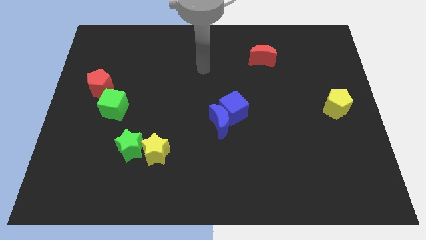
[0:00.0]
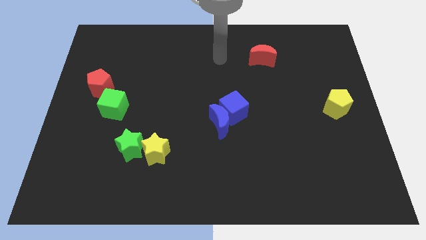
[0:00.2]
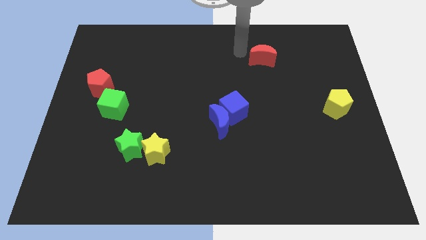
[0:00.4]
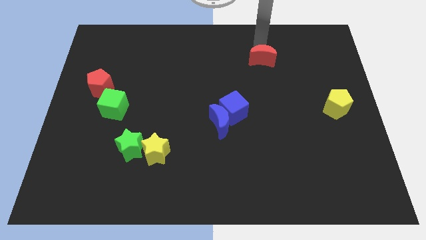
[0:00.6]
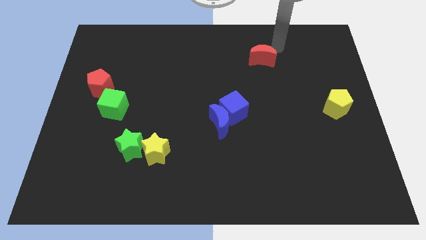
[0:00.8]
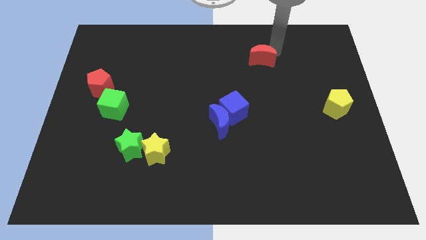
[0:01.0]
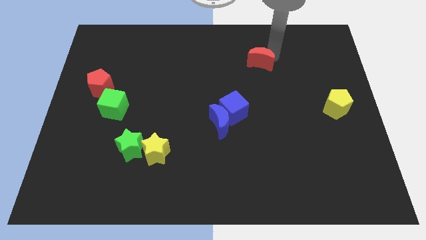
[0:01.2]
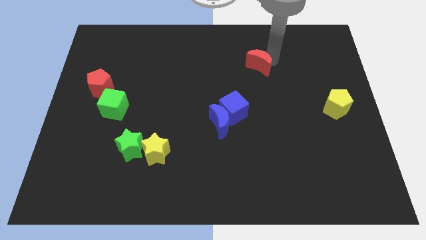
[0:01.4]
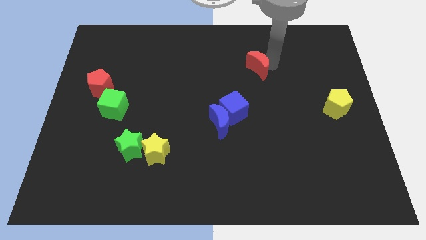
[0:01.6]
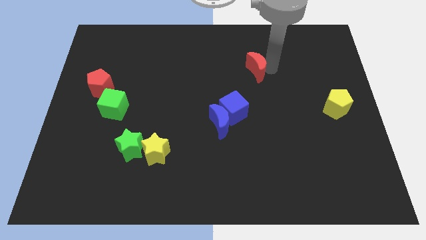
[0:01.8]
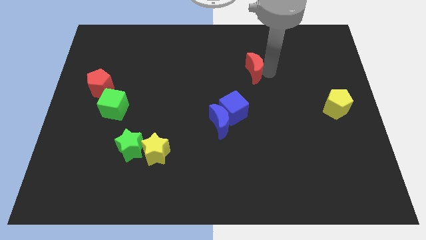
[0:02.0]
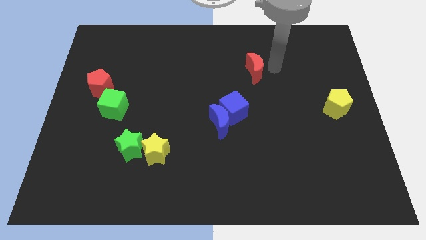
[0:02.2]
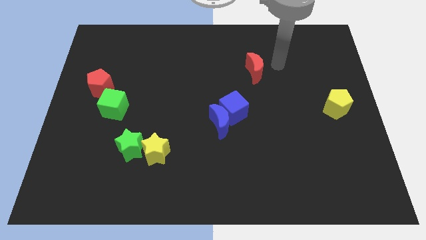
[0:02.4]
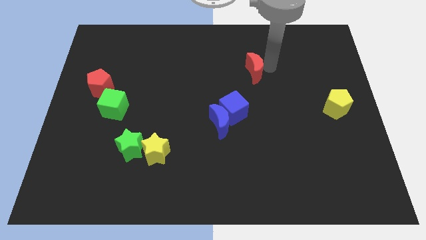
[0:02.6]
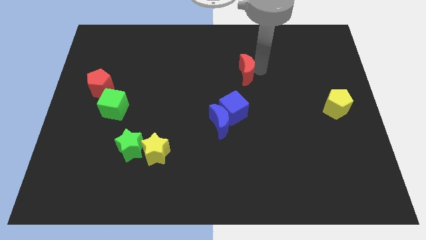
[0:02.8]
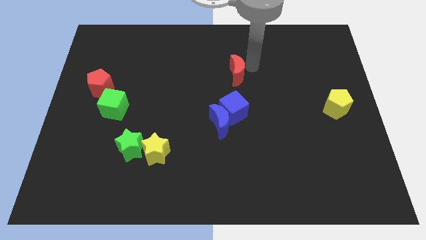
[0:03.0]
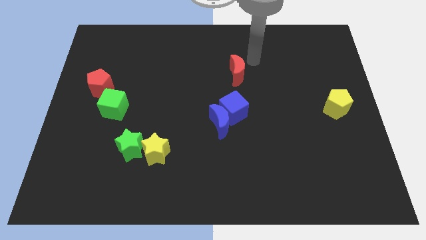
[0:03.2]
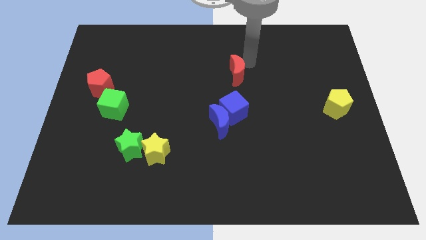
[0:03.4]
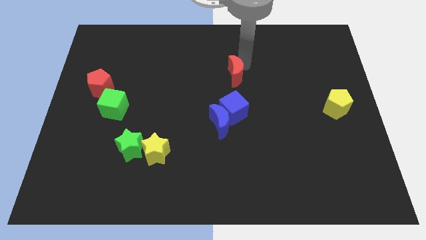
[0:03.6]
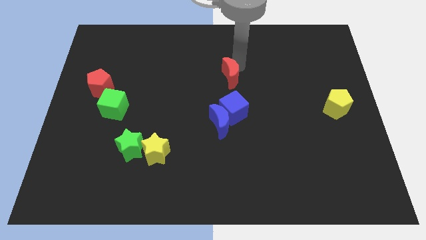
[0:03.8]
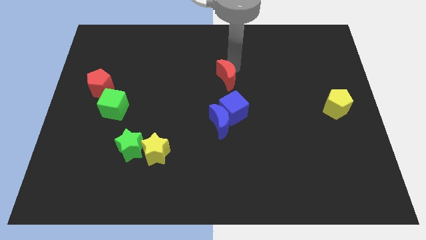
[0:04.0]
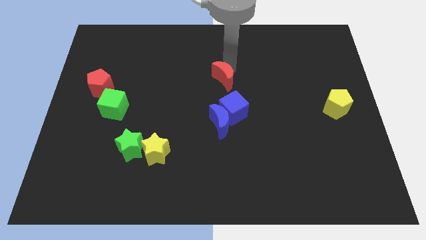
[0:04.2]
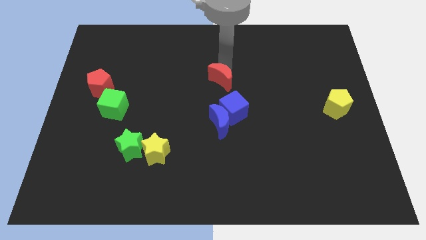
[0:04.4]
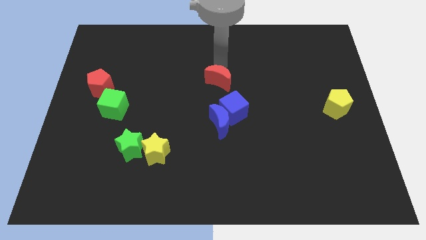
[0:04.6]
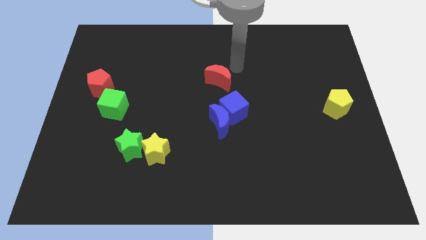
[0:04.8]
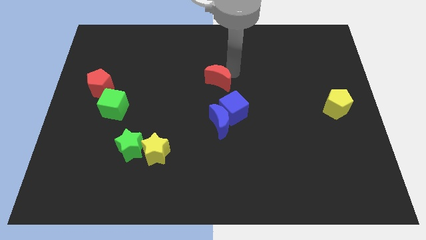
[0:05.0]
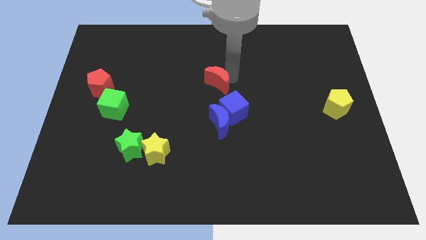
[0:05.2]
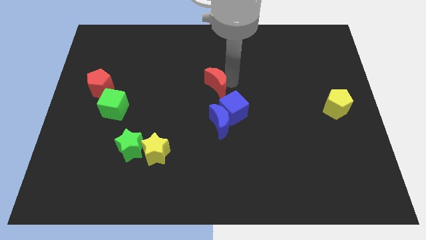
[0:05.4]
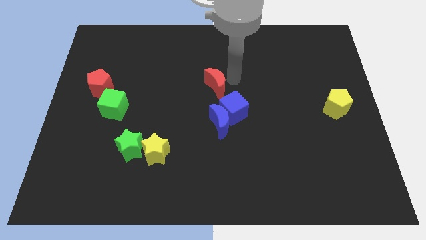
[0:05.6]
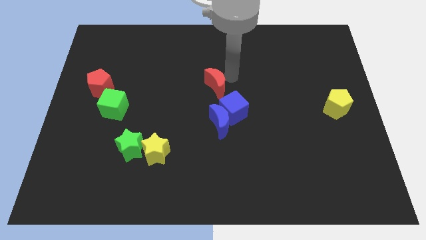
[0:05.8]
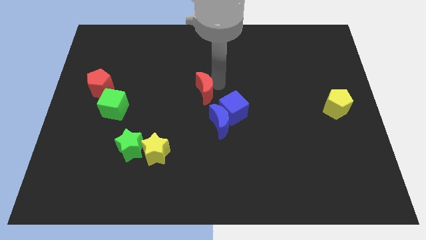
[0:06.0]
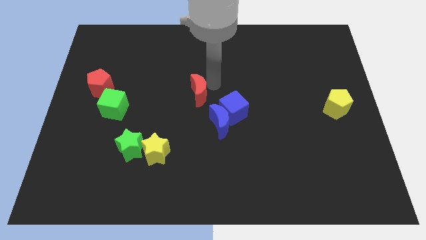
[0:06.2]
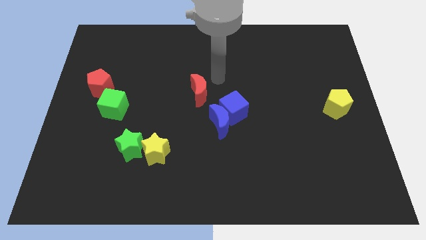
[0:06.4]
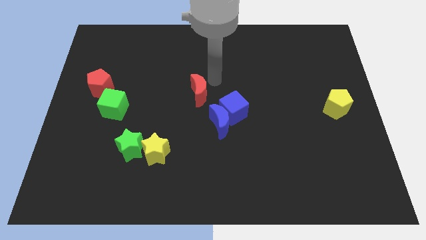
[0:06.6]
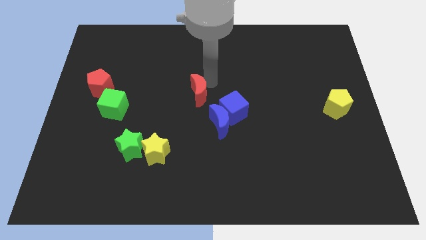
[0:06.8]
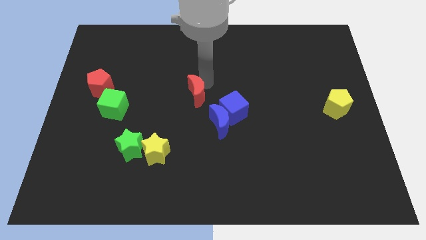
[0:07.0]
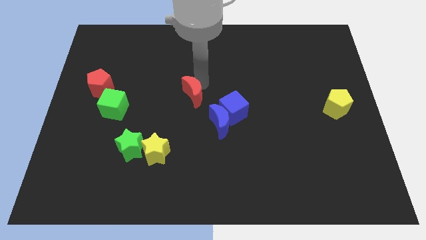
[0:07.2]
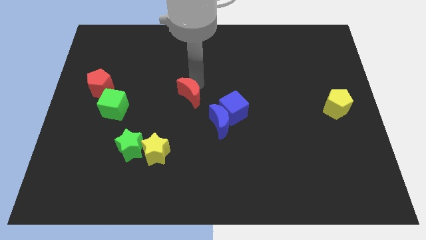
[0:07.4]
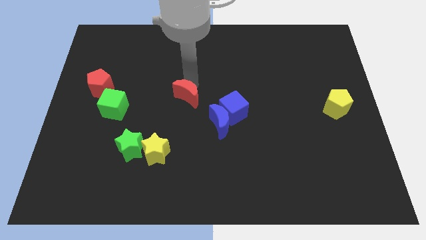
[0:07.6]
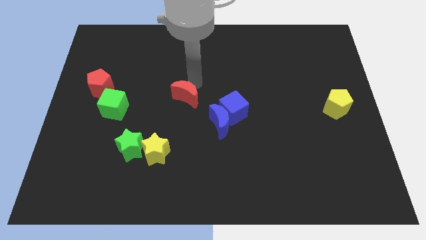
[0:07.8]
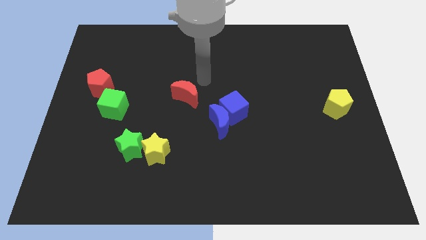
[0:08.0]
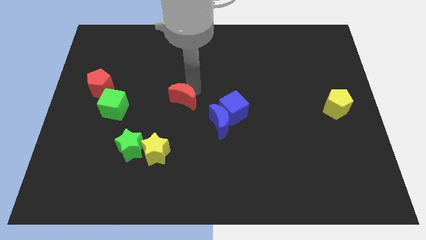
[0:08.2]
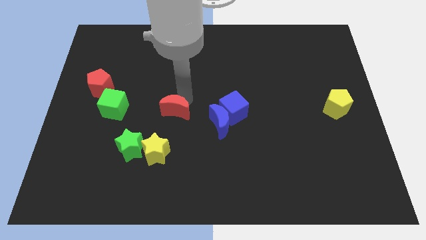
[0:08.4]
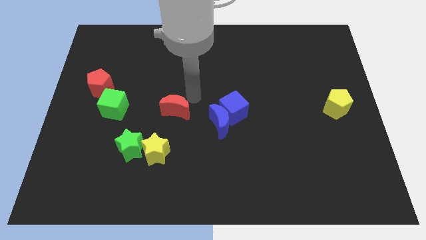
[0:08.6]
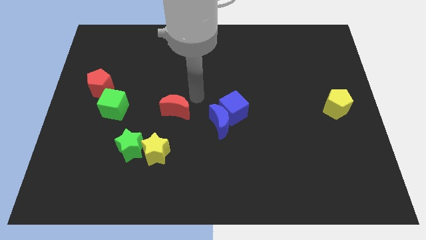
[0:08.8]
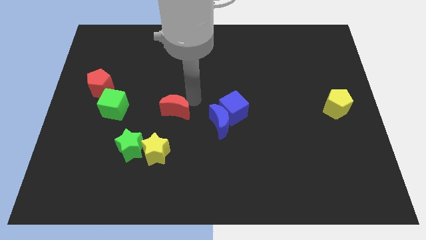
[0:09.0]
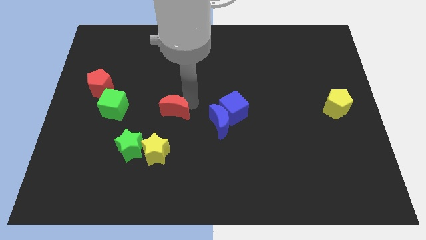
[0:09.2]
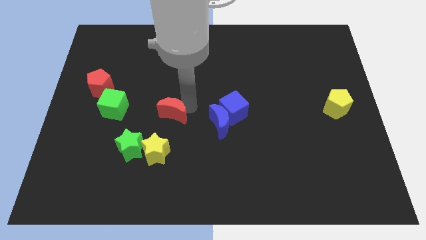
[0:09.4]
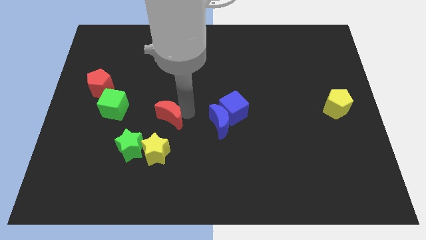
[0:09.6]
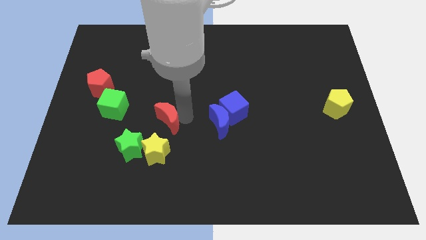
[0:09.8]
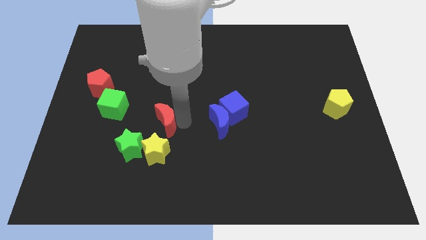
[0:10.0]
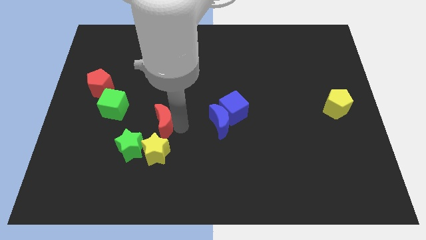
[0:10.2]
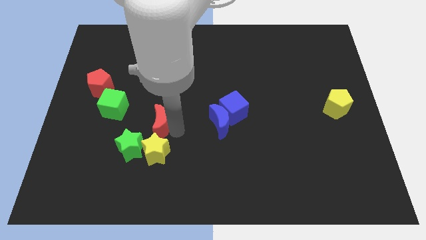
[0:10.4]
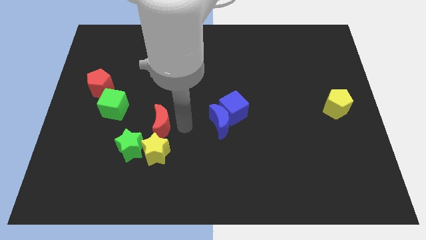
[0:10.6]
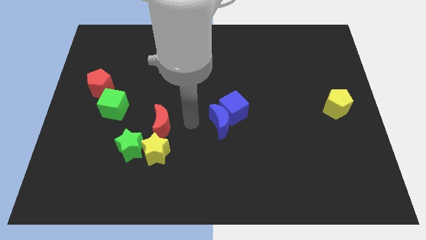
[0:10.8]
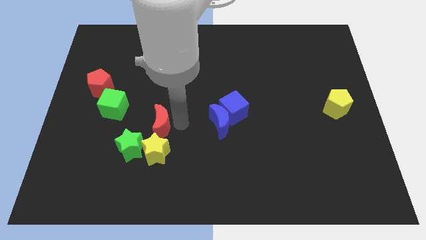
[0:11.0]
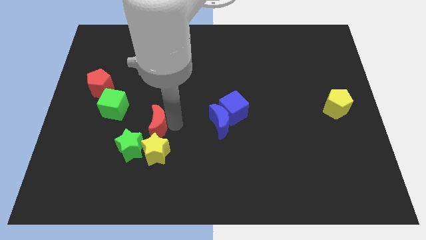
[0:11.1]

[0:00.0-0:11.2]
put the red moon to the top left of the yellow star
